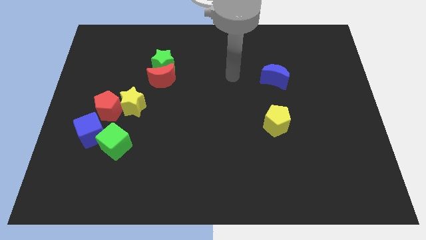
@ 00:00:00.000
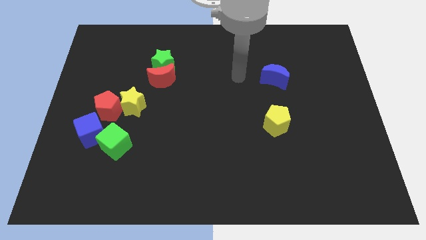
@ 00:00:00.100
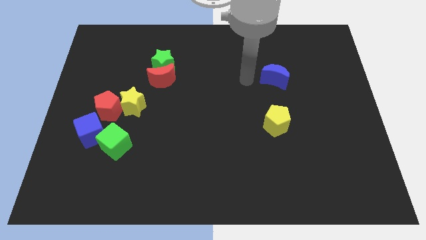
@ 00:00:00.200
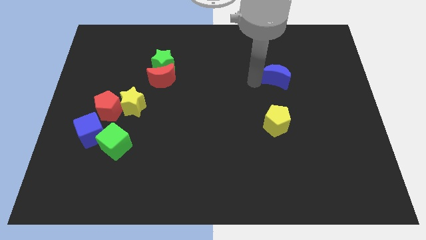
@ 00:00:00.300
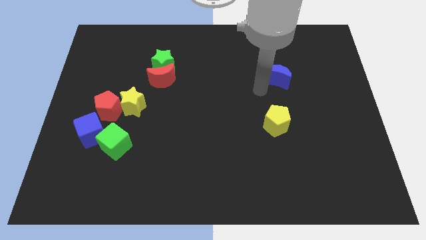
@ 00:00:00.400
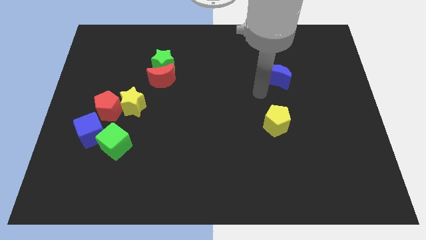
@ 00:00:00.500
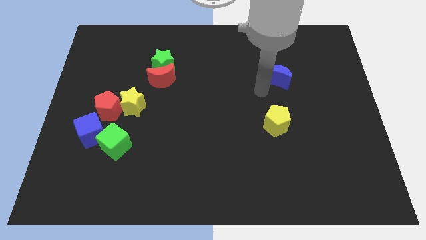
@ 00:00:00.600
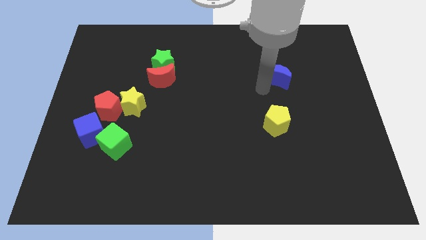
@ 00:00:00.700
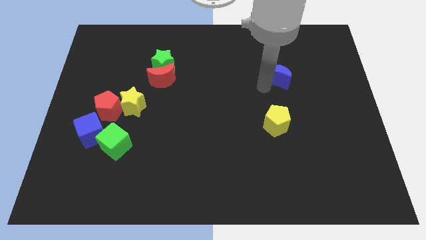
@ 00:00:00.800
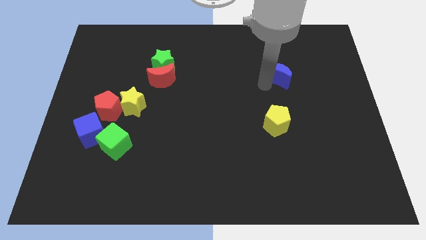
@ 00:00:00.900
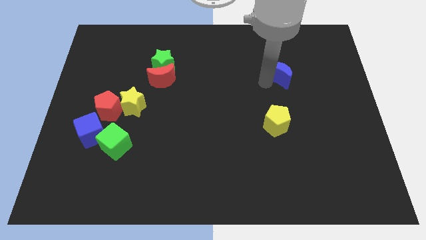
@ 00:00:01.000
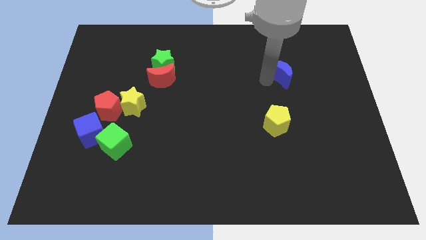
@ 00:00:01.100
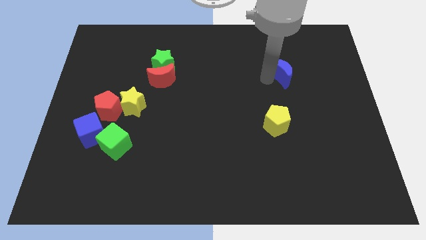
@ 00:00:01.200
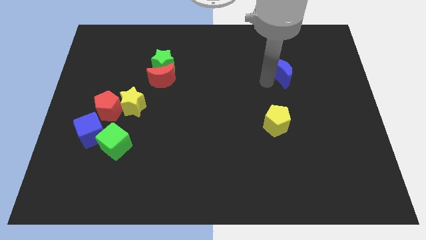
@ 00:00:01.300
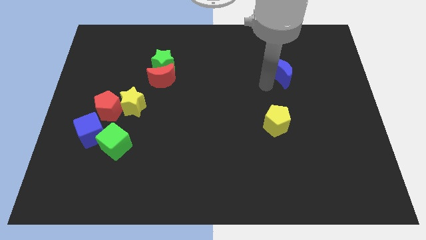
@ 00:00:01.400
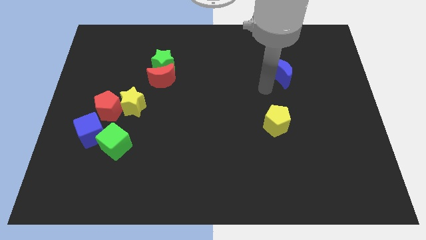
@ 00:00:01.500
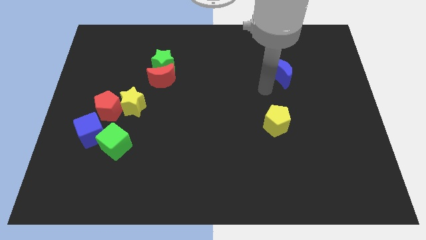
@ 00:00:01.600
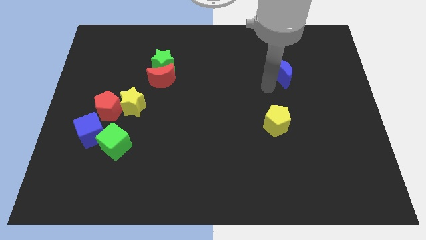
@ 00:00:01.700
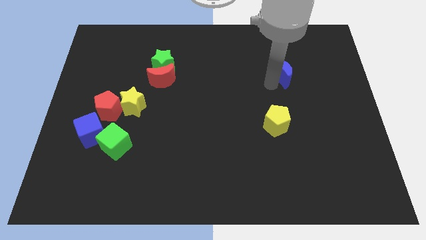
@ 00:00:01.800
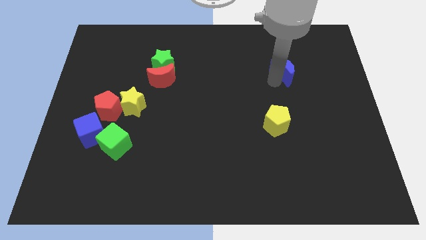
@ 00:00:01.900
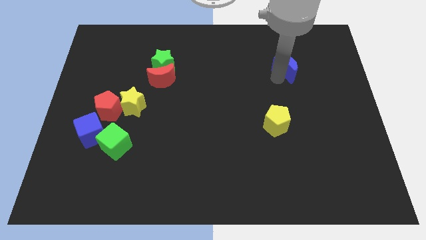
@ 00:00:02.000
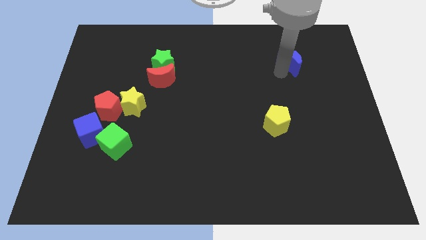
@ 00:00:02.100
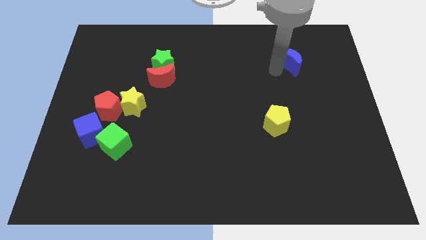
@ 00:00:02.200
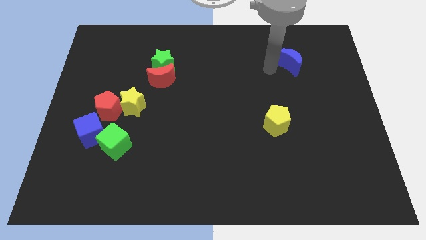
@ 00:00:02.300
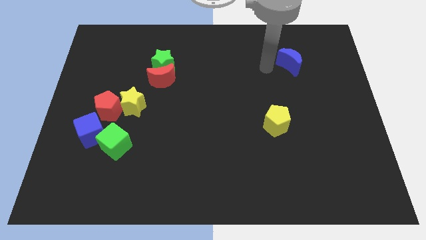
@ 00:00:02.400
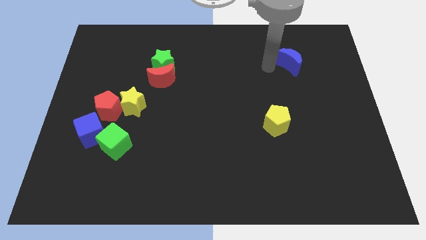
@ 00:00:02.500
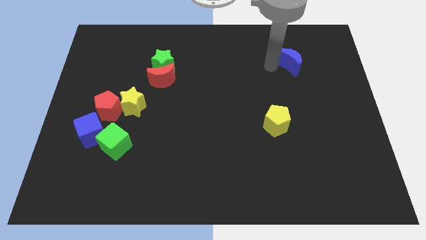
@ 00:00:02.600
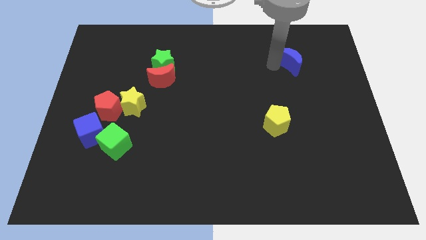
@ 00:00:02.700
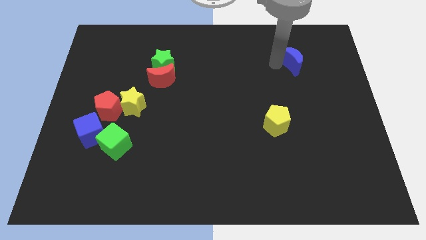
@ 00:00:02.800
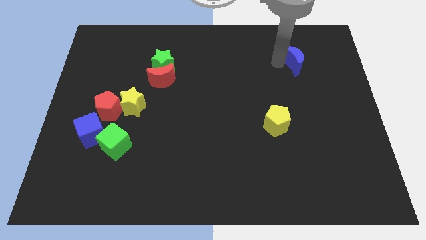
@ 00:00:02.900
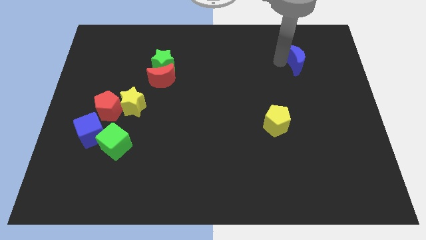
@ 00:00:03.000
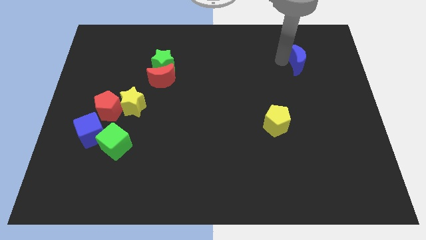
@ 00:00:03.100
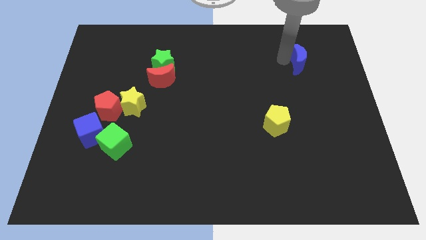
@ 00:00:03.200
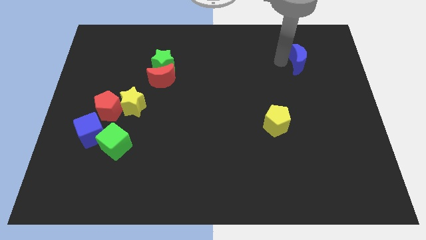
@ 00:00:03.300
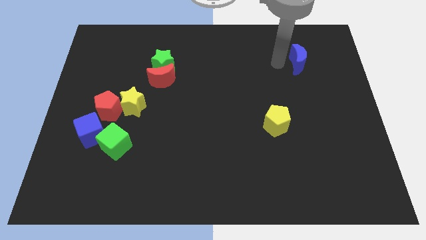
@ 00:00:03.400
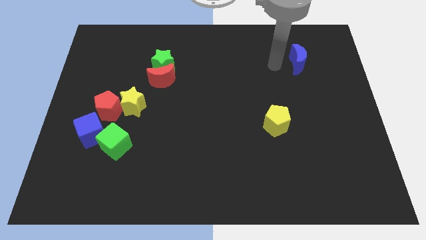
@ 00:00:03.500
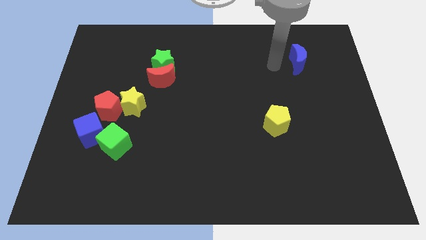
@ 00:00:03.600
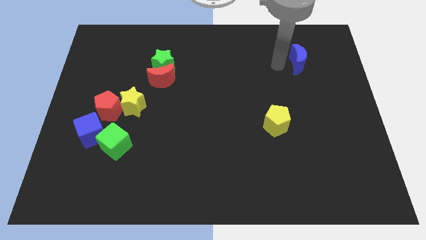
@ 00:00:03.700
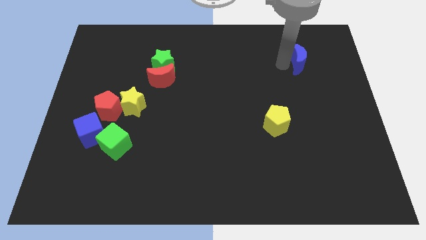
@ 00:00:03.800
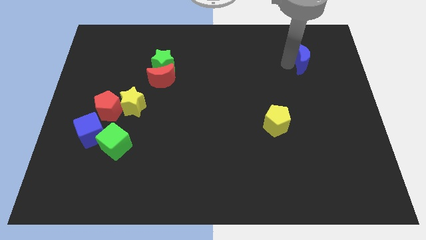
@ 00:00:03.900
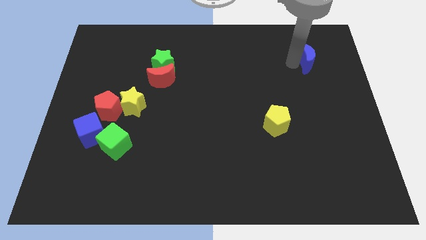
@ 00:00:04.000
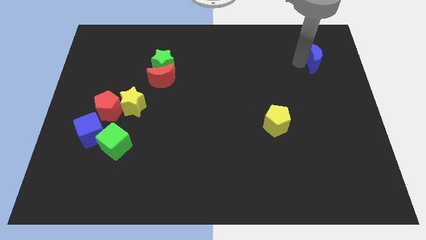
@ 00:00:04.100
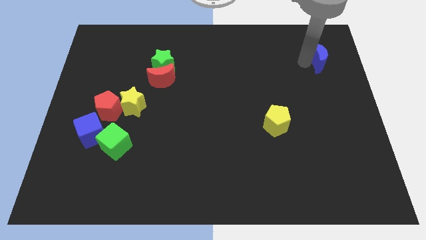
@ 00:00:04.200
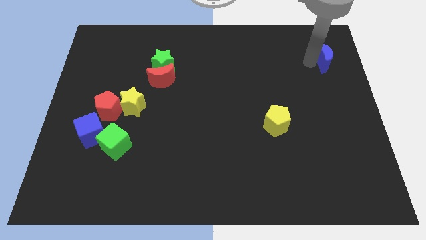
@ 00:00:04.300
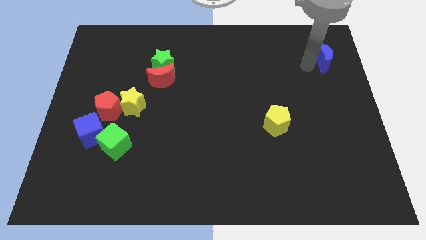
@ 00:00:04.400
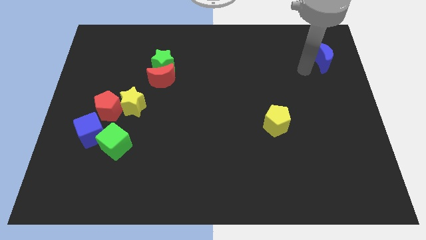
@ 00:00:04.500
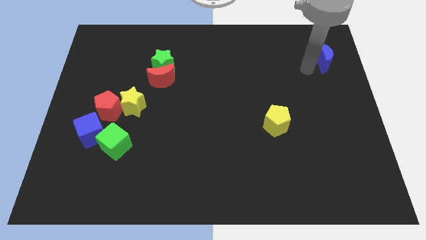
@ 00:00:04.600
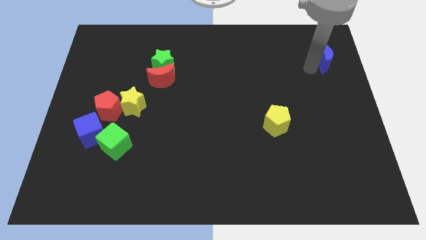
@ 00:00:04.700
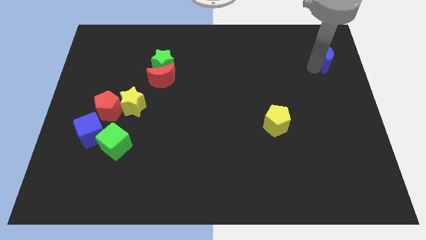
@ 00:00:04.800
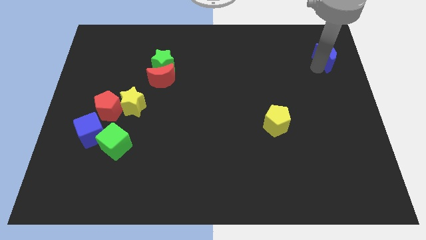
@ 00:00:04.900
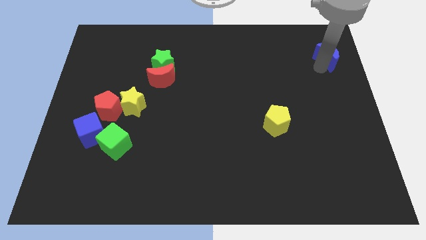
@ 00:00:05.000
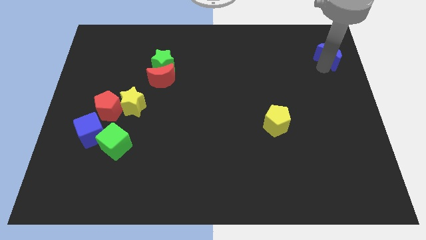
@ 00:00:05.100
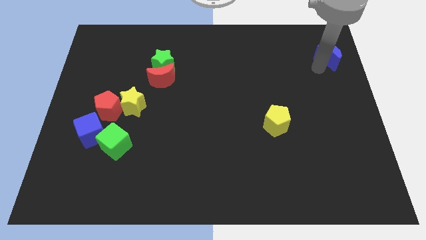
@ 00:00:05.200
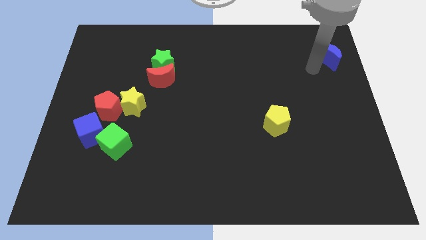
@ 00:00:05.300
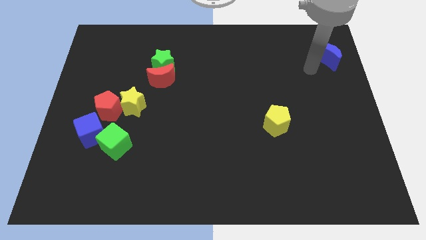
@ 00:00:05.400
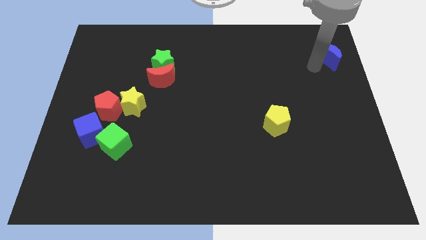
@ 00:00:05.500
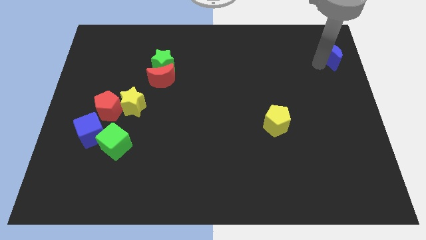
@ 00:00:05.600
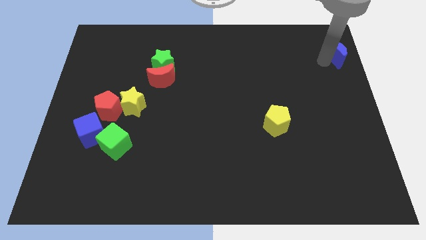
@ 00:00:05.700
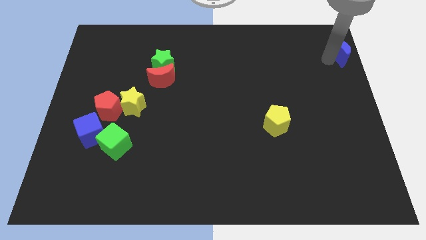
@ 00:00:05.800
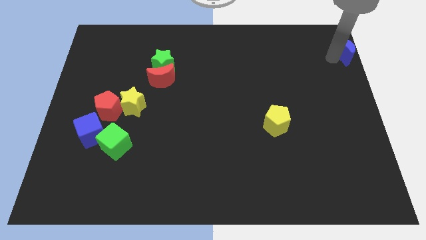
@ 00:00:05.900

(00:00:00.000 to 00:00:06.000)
move the blue moon to the top right
